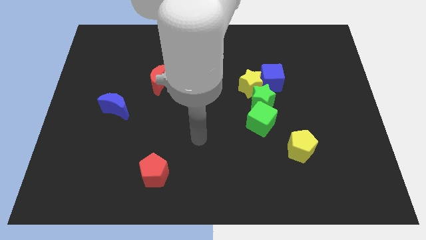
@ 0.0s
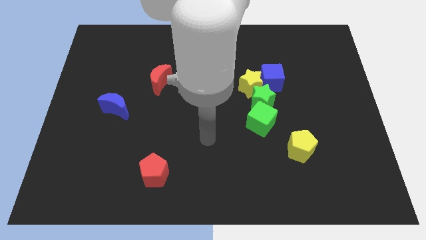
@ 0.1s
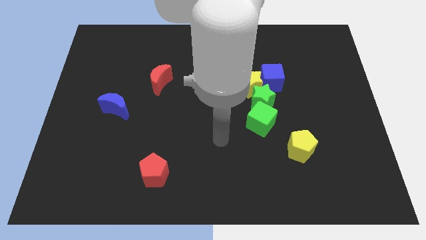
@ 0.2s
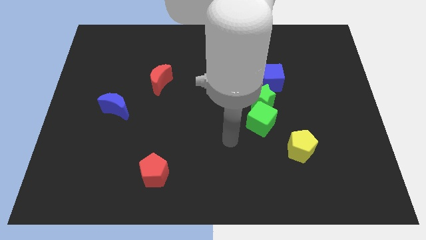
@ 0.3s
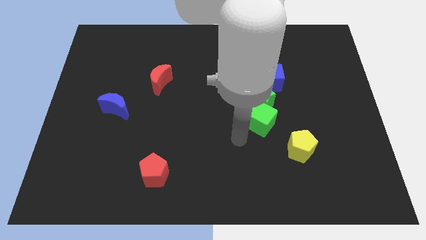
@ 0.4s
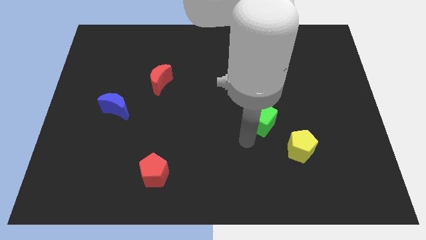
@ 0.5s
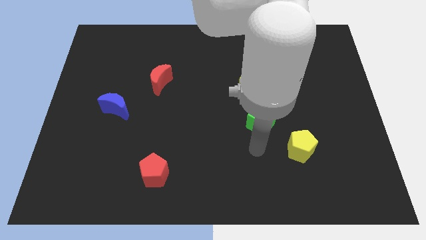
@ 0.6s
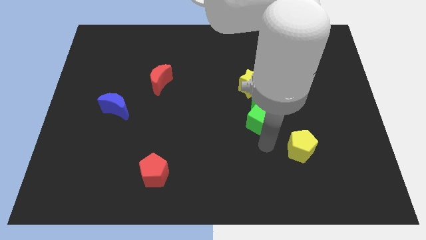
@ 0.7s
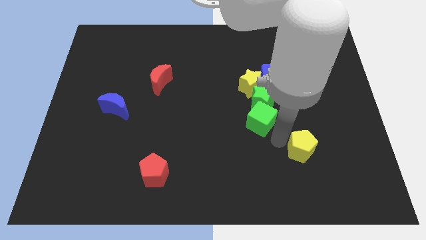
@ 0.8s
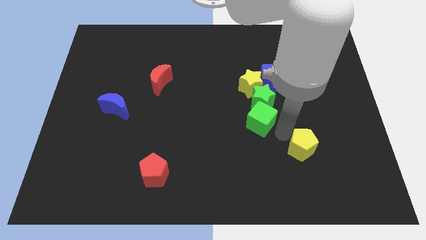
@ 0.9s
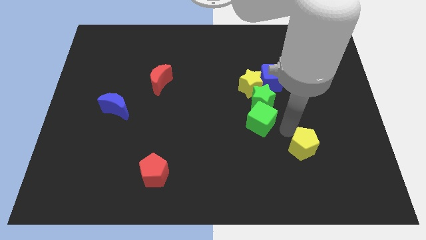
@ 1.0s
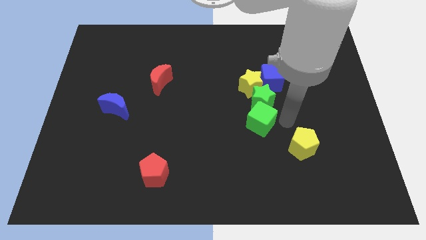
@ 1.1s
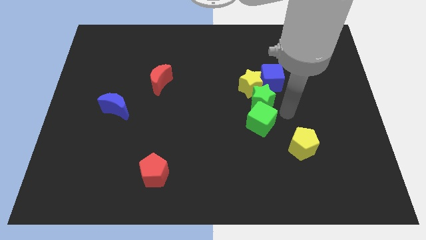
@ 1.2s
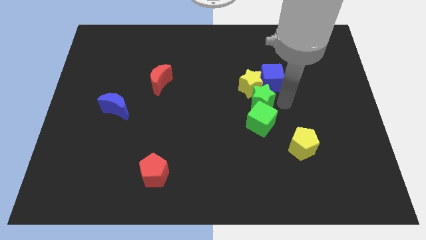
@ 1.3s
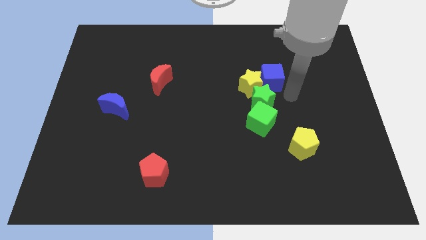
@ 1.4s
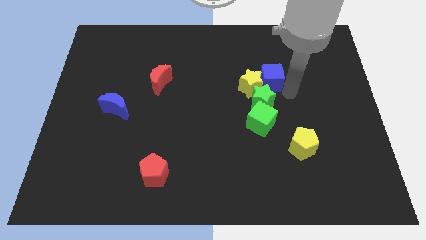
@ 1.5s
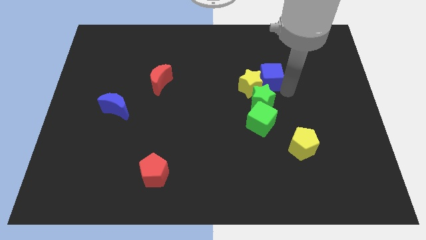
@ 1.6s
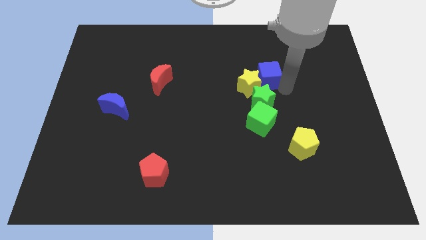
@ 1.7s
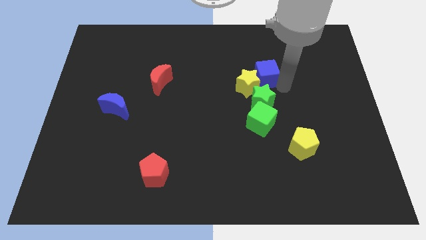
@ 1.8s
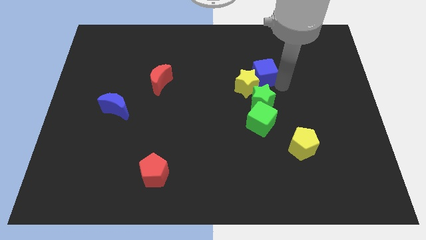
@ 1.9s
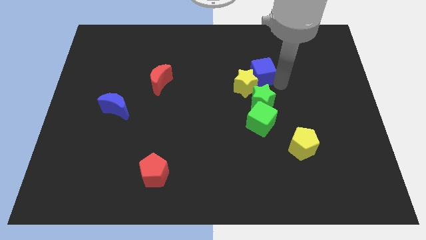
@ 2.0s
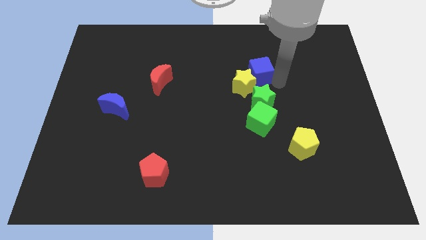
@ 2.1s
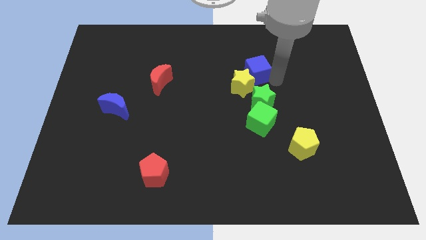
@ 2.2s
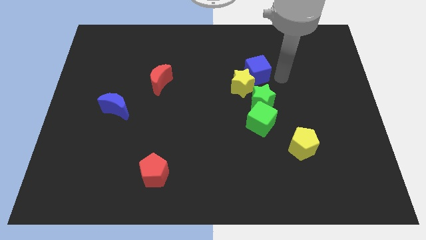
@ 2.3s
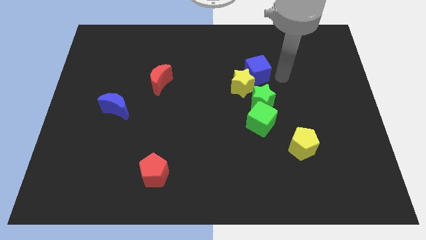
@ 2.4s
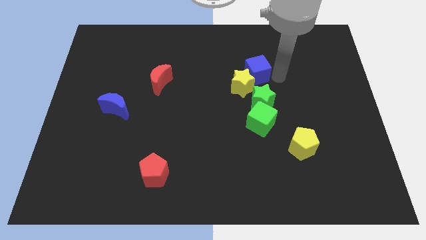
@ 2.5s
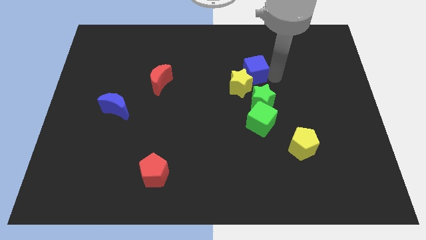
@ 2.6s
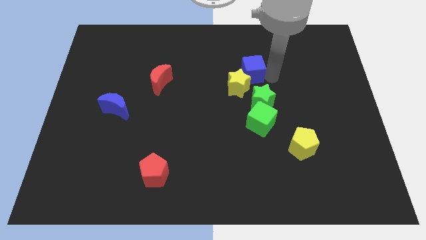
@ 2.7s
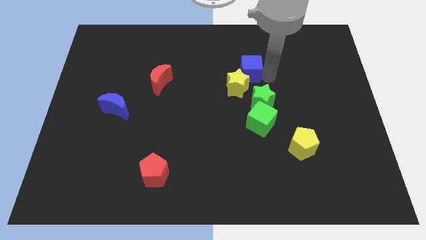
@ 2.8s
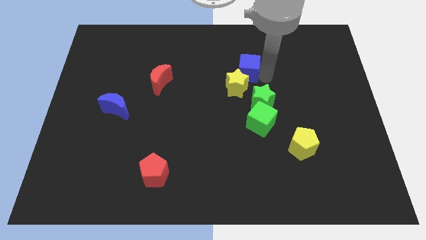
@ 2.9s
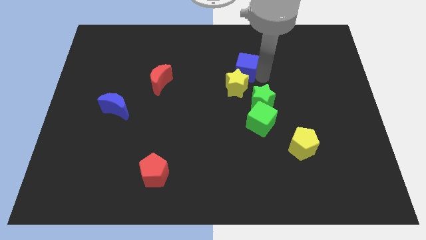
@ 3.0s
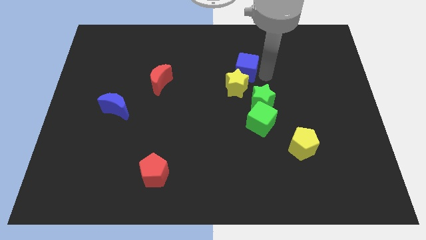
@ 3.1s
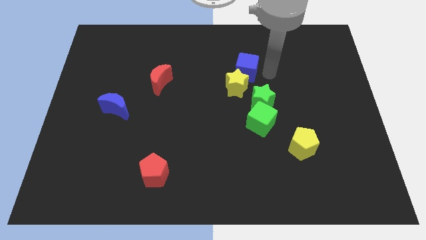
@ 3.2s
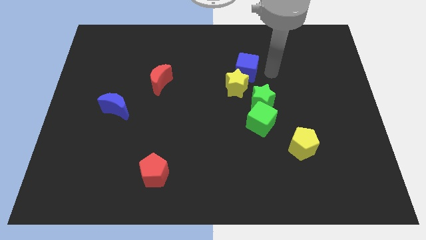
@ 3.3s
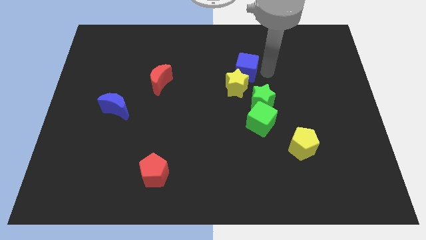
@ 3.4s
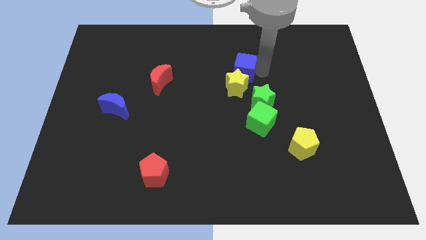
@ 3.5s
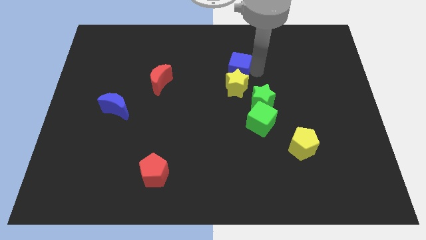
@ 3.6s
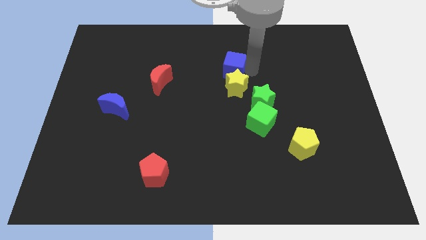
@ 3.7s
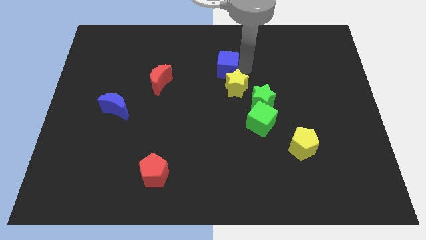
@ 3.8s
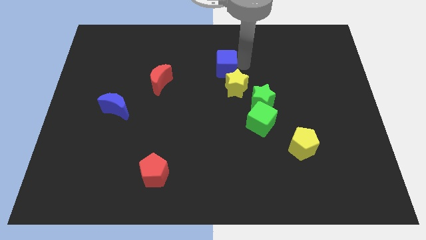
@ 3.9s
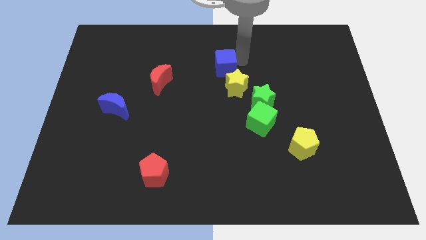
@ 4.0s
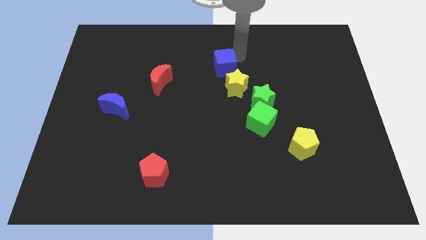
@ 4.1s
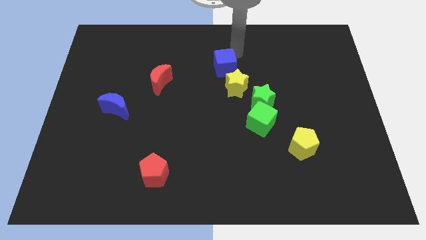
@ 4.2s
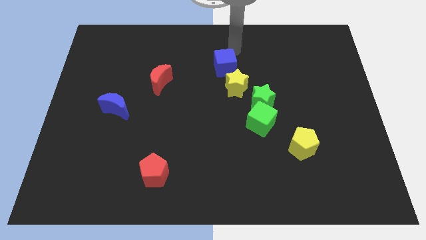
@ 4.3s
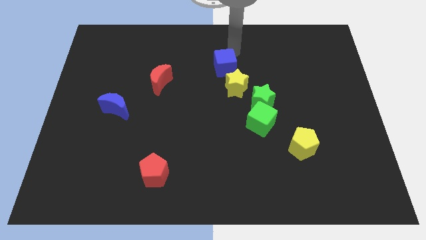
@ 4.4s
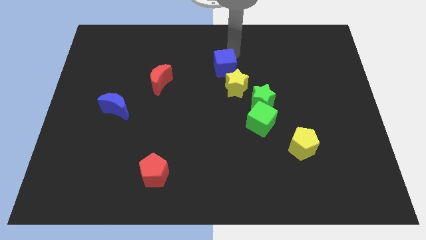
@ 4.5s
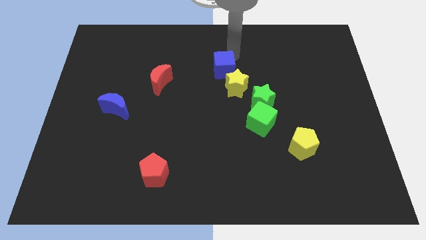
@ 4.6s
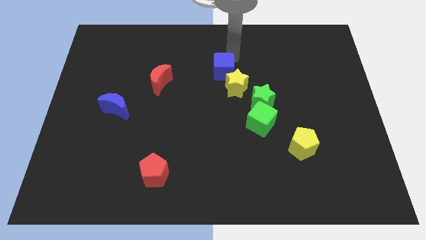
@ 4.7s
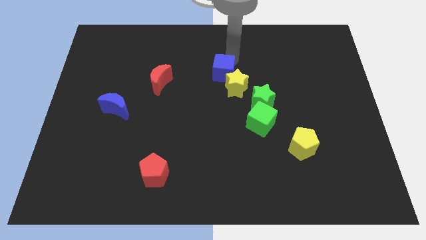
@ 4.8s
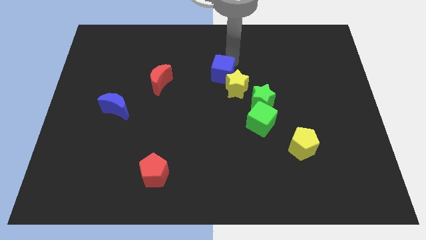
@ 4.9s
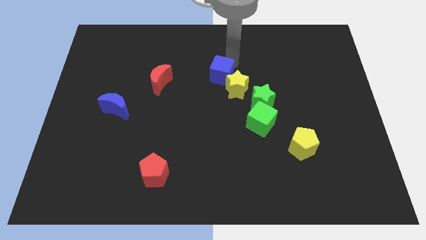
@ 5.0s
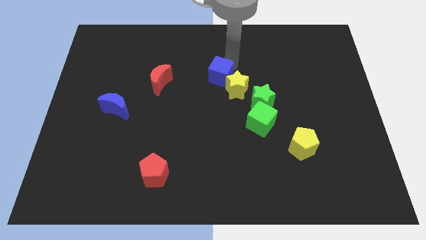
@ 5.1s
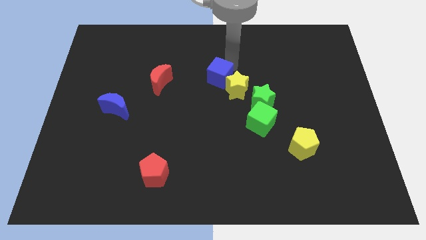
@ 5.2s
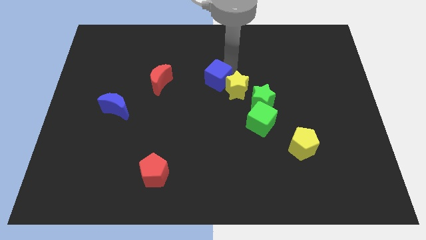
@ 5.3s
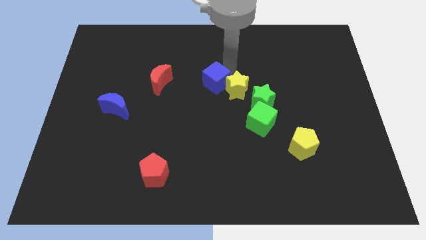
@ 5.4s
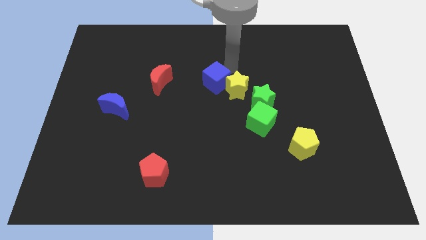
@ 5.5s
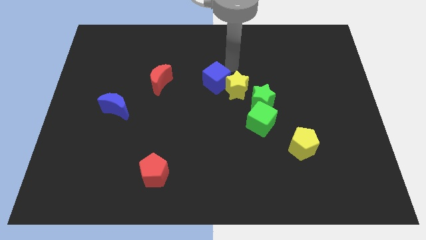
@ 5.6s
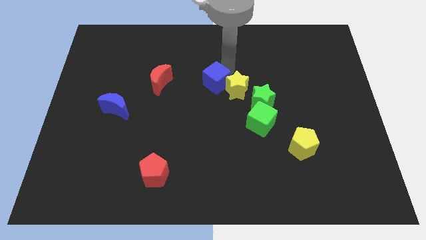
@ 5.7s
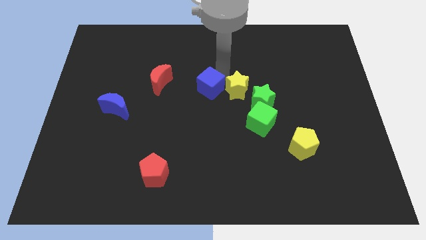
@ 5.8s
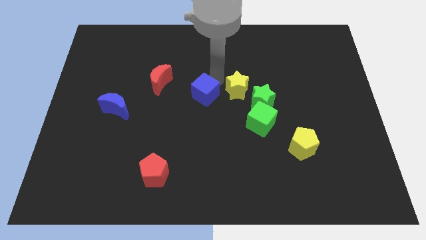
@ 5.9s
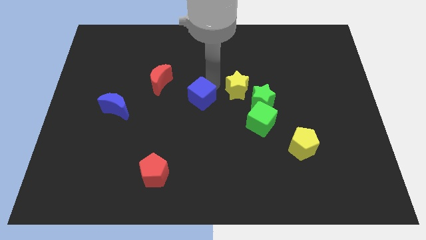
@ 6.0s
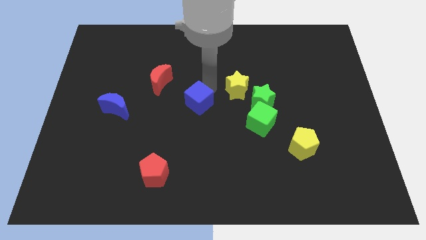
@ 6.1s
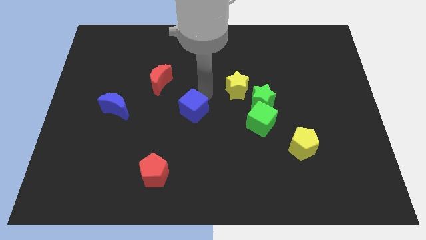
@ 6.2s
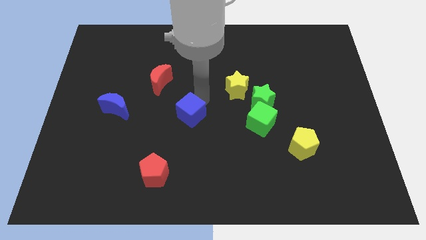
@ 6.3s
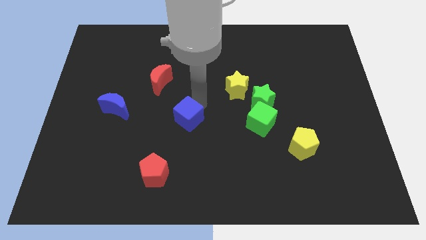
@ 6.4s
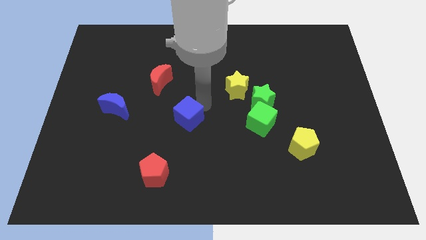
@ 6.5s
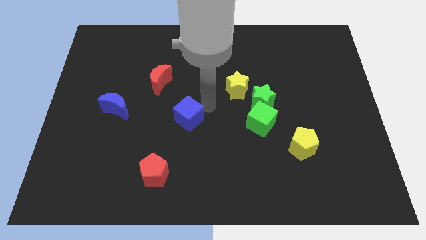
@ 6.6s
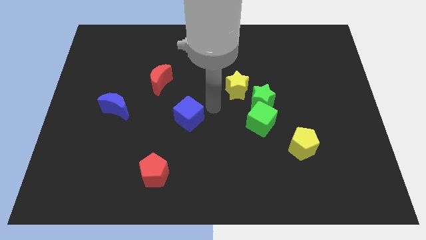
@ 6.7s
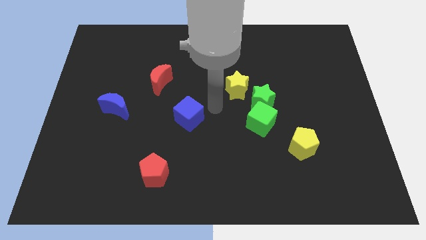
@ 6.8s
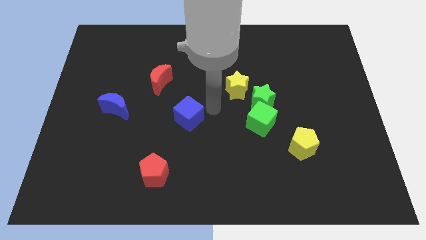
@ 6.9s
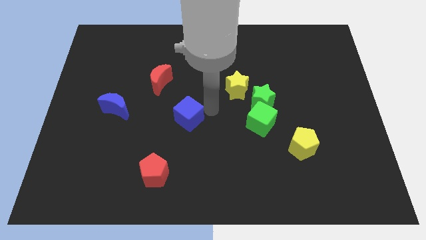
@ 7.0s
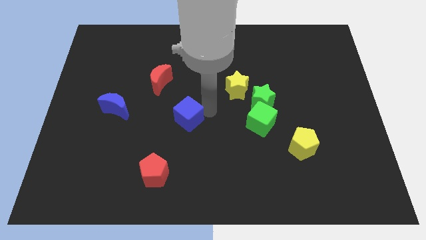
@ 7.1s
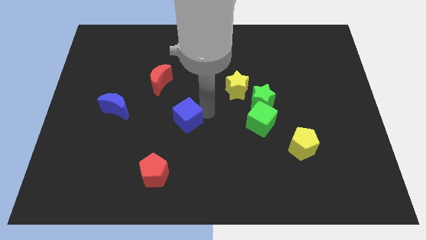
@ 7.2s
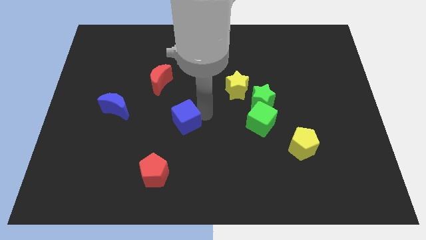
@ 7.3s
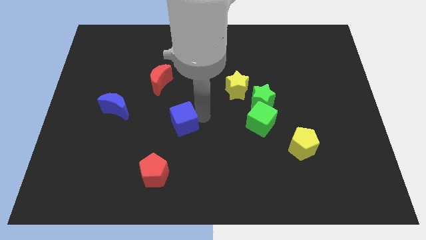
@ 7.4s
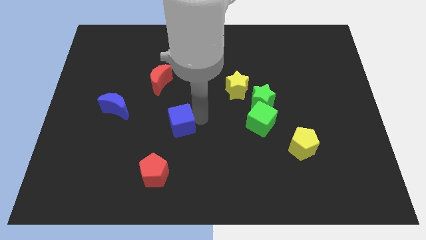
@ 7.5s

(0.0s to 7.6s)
slide the blue cube to the top of the red pentagon
